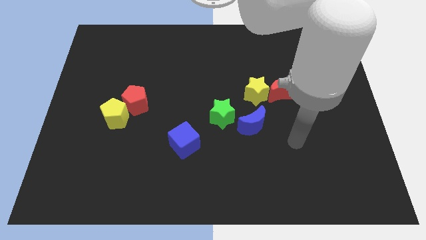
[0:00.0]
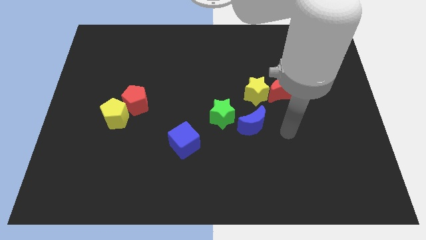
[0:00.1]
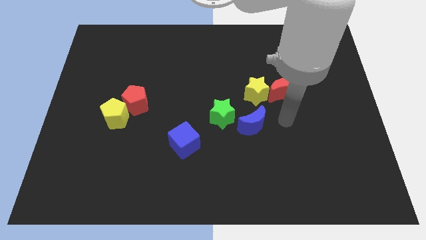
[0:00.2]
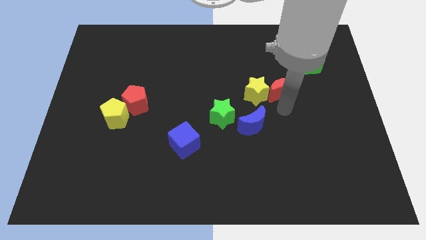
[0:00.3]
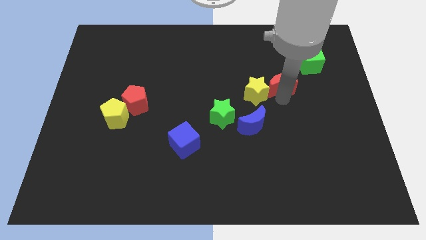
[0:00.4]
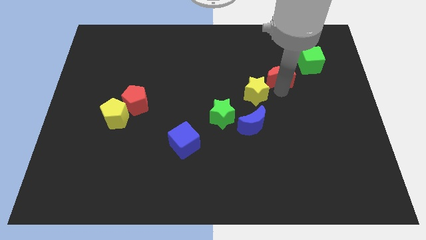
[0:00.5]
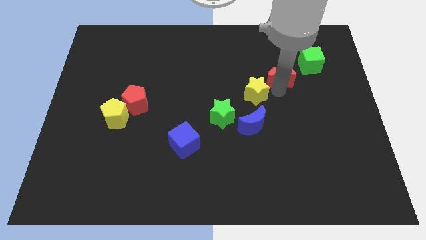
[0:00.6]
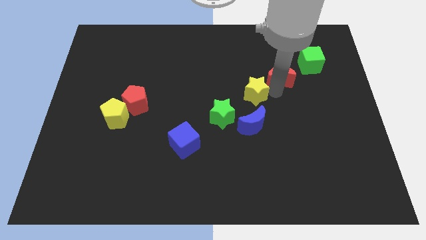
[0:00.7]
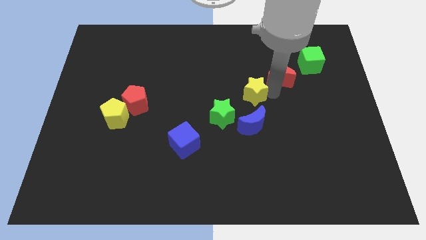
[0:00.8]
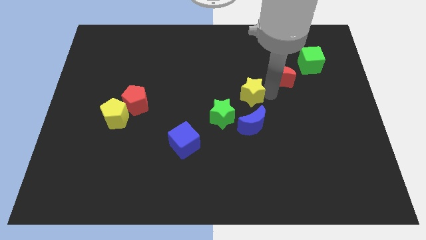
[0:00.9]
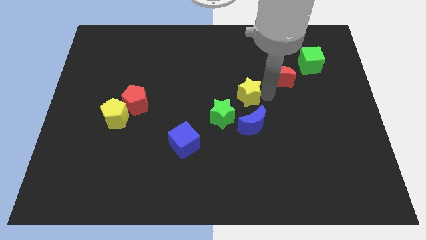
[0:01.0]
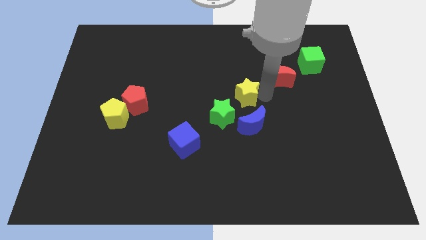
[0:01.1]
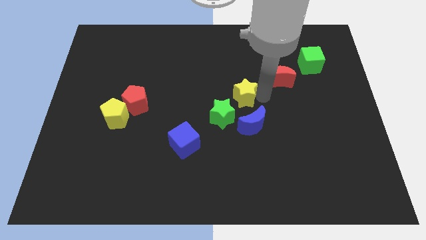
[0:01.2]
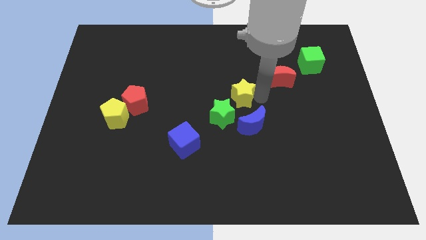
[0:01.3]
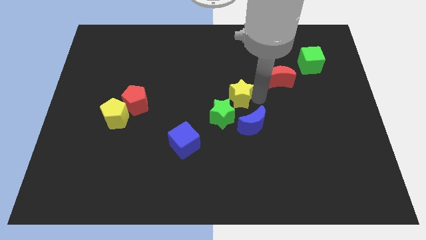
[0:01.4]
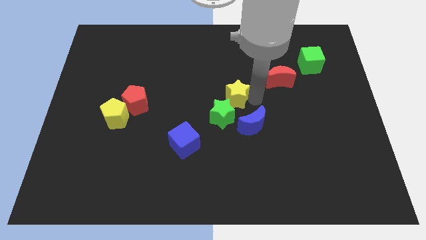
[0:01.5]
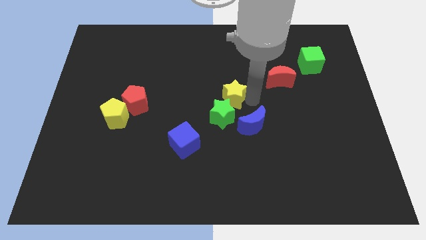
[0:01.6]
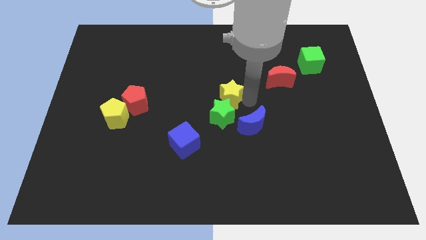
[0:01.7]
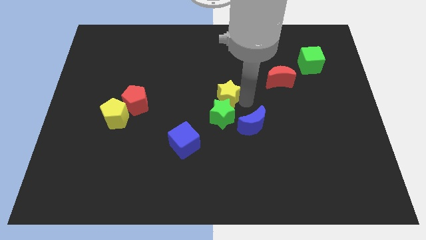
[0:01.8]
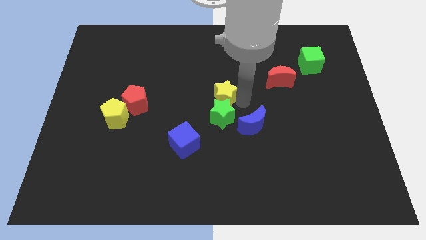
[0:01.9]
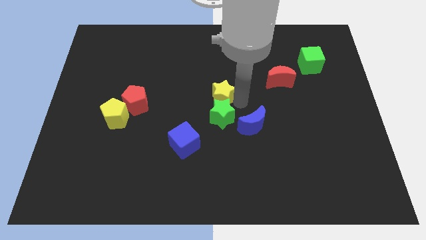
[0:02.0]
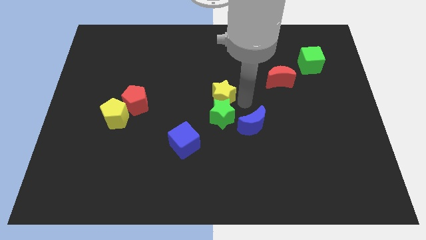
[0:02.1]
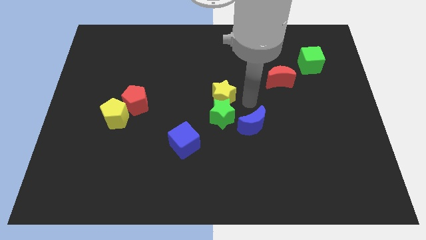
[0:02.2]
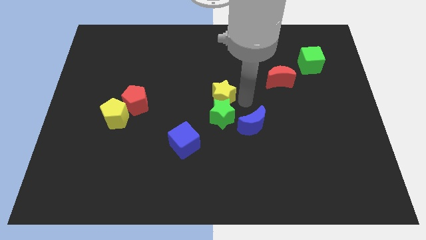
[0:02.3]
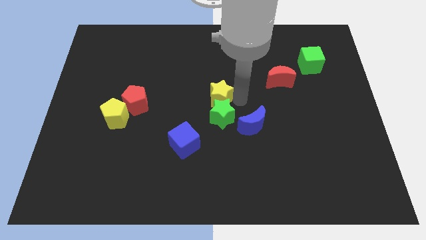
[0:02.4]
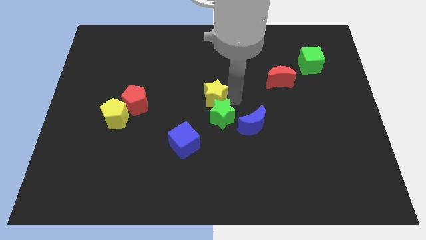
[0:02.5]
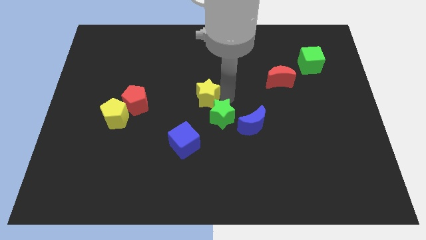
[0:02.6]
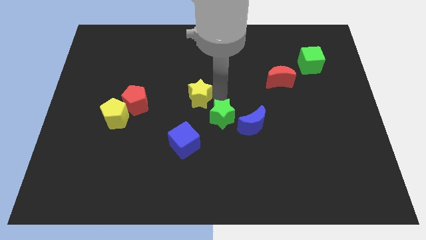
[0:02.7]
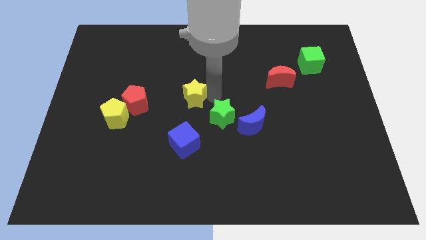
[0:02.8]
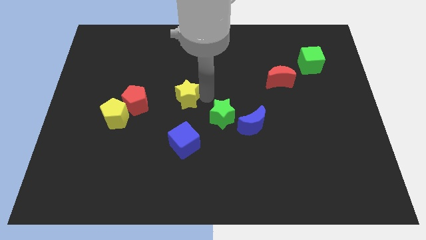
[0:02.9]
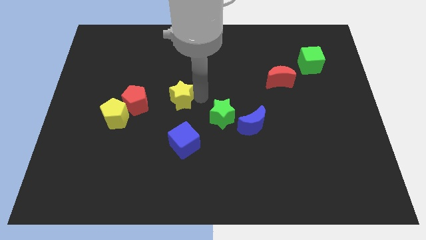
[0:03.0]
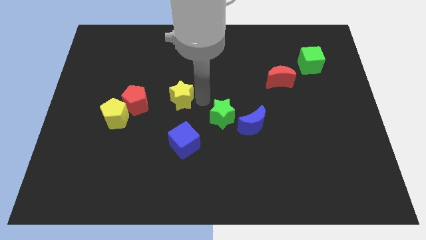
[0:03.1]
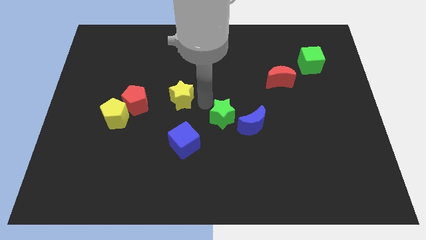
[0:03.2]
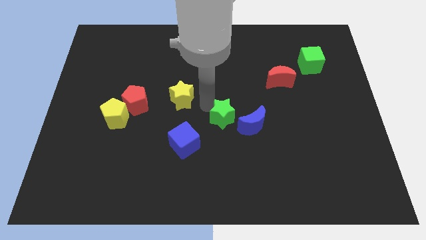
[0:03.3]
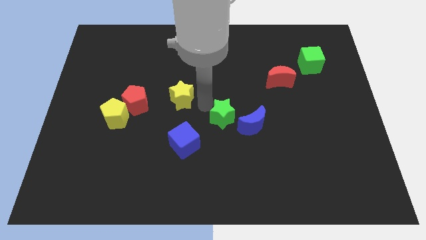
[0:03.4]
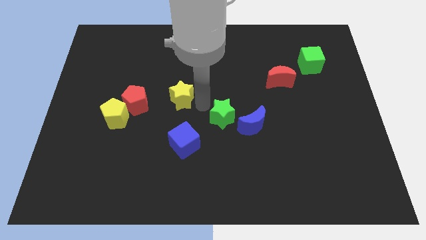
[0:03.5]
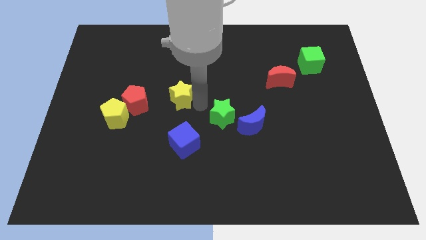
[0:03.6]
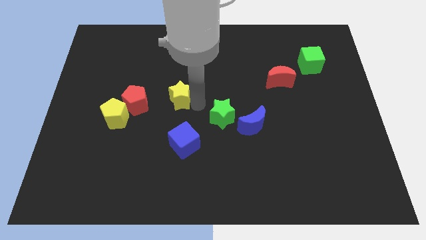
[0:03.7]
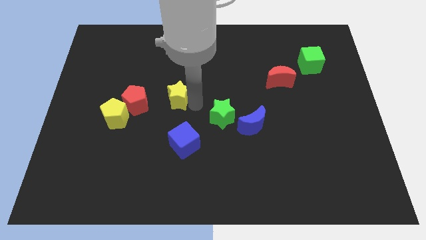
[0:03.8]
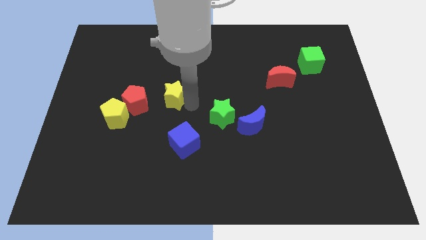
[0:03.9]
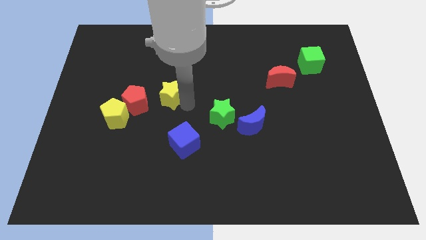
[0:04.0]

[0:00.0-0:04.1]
push the yellow star left

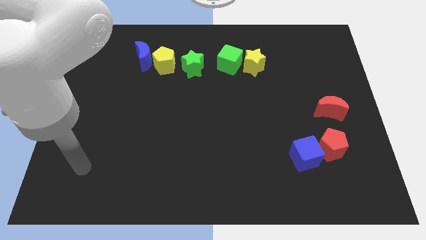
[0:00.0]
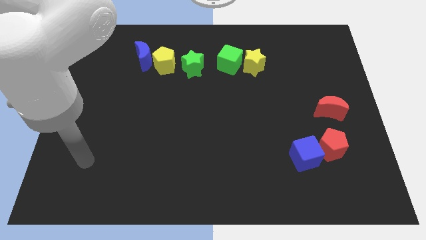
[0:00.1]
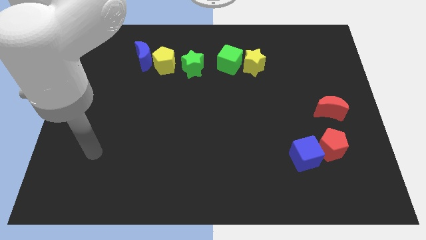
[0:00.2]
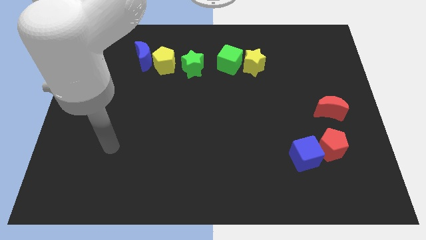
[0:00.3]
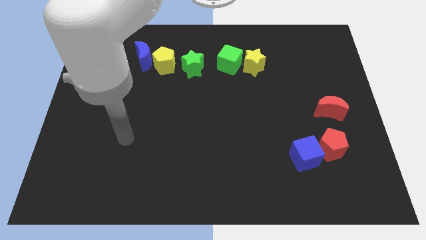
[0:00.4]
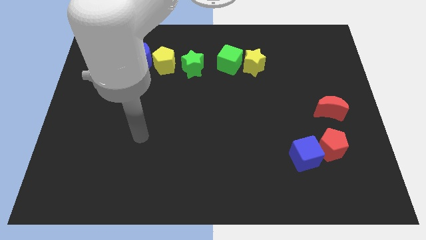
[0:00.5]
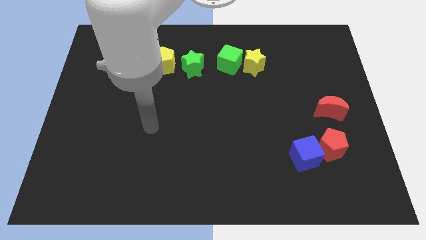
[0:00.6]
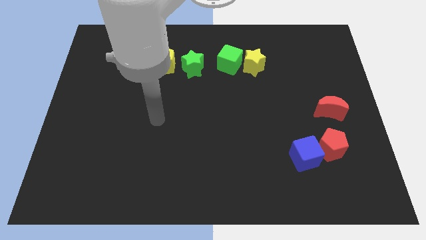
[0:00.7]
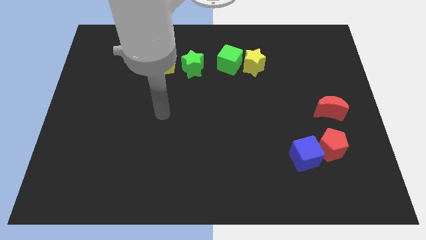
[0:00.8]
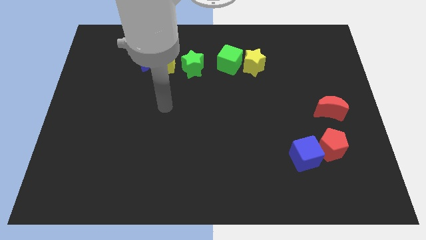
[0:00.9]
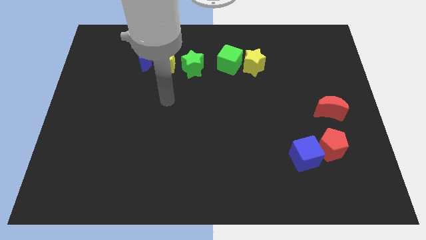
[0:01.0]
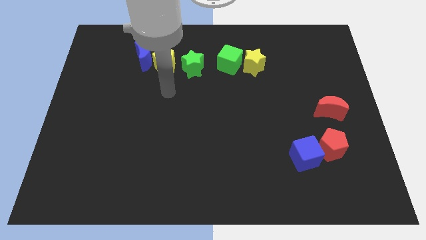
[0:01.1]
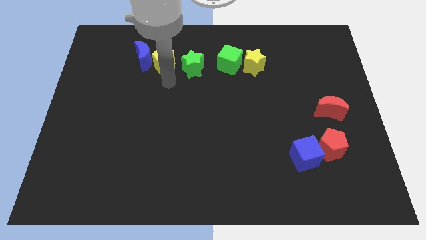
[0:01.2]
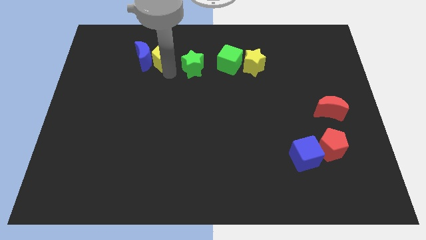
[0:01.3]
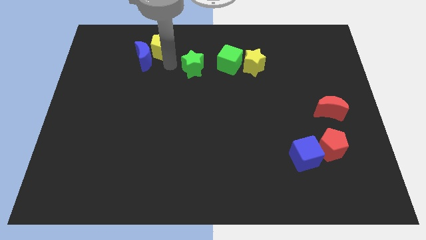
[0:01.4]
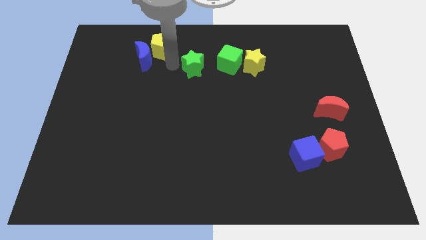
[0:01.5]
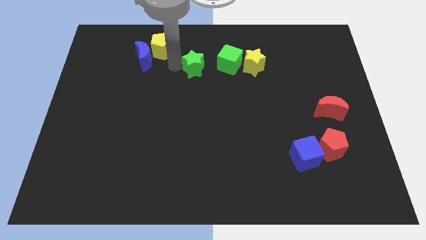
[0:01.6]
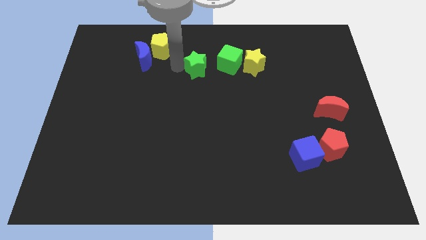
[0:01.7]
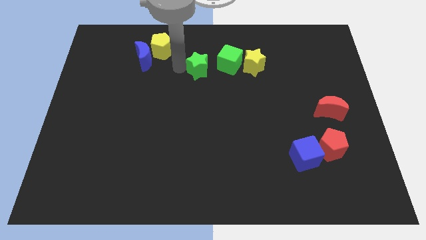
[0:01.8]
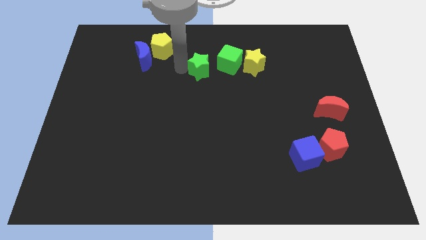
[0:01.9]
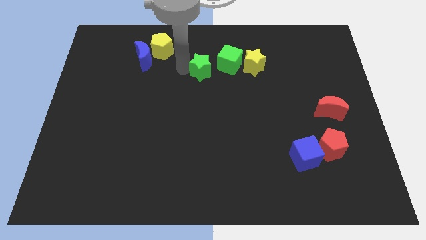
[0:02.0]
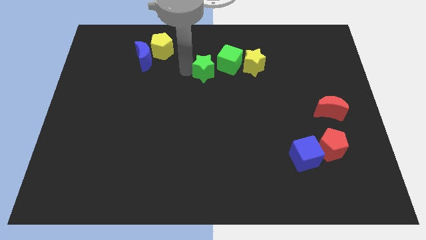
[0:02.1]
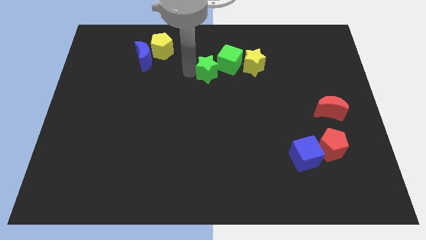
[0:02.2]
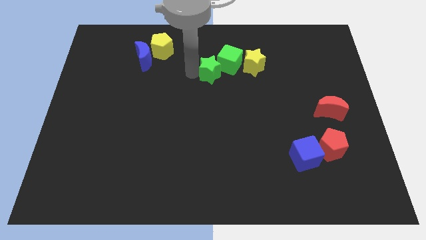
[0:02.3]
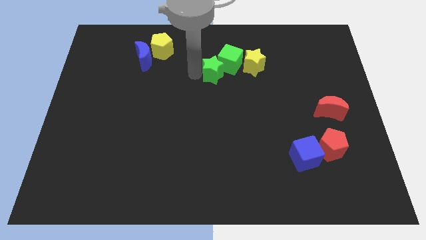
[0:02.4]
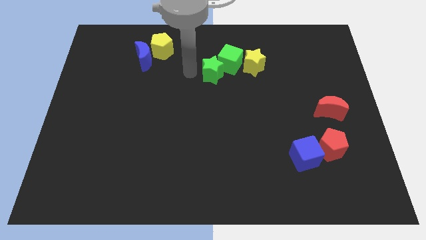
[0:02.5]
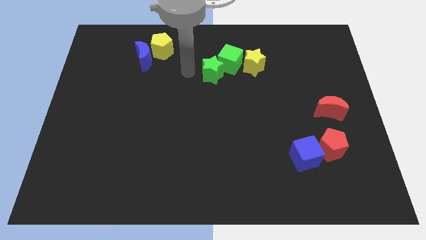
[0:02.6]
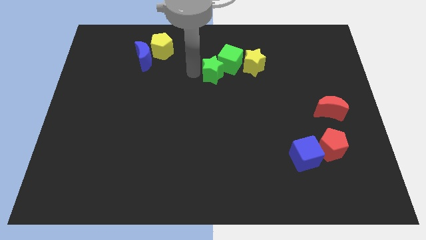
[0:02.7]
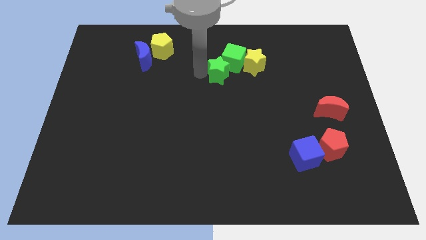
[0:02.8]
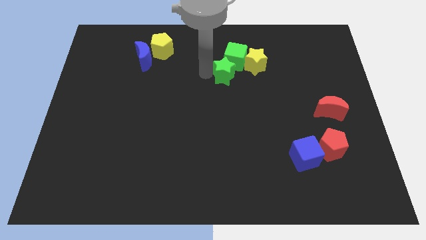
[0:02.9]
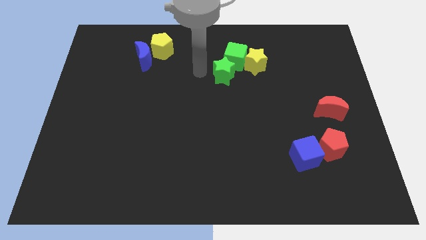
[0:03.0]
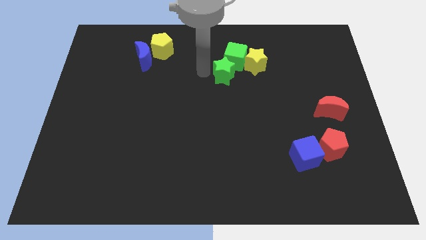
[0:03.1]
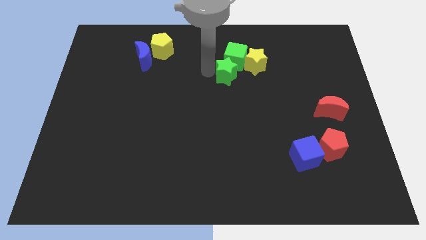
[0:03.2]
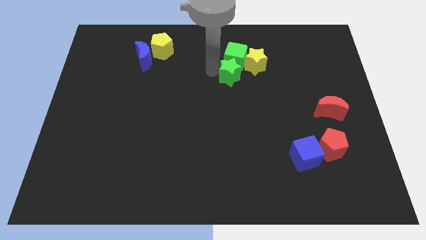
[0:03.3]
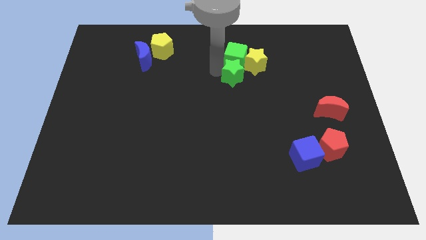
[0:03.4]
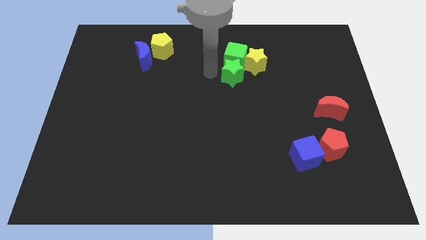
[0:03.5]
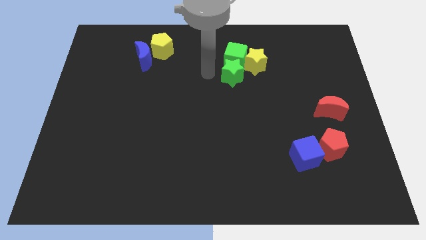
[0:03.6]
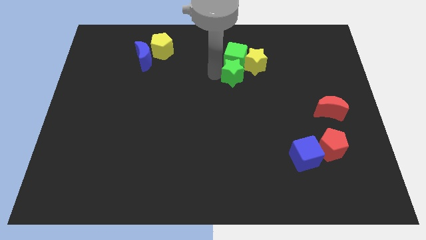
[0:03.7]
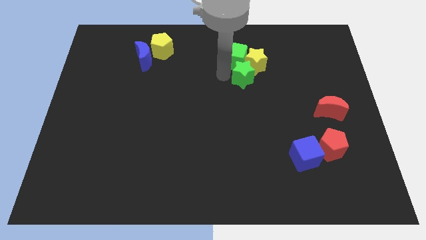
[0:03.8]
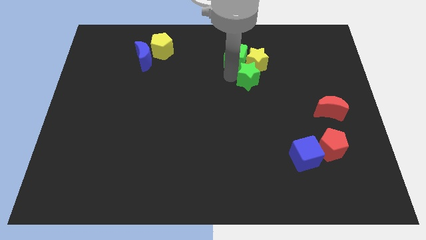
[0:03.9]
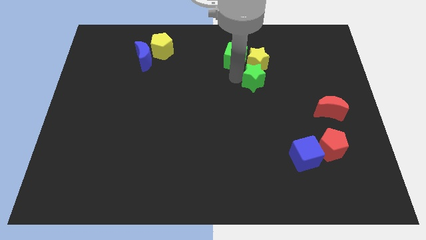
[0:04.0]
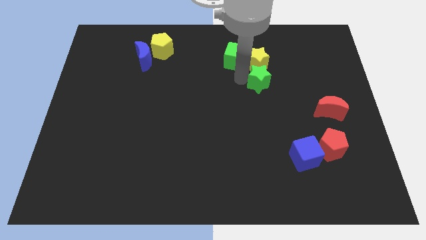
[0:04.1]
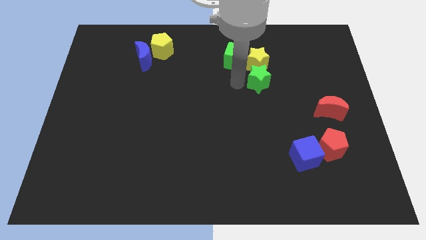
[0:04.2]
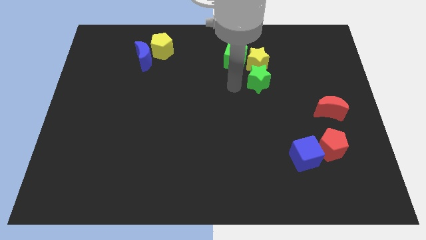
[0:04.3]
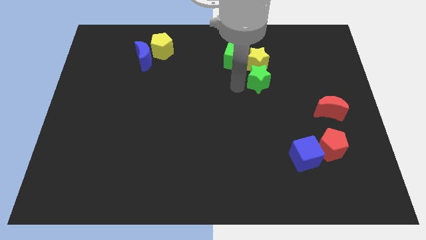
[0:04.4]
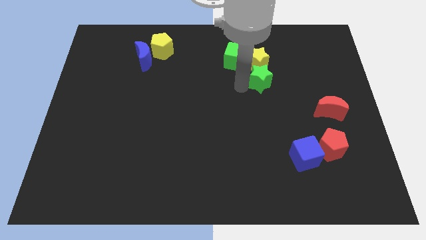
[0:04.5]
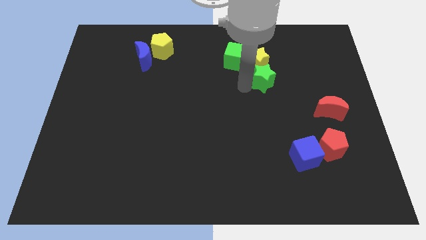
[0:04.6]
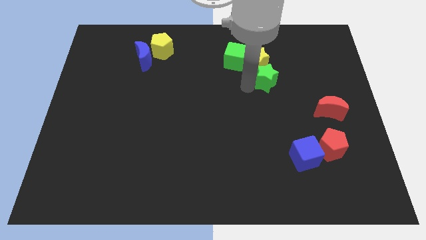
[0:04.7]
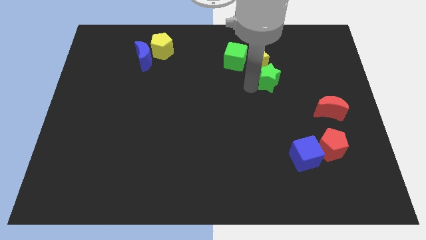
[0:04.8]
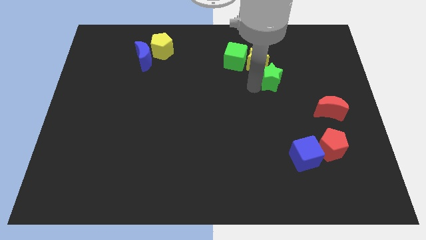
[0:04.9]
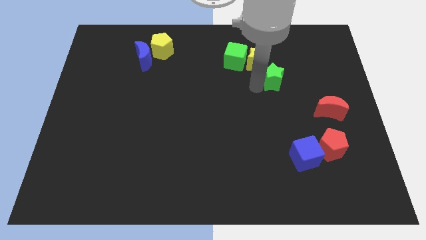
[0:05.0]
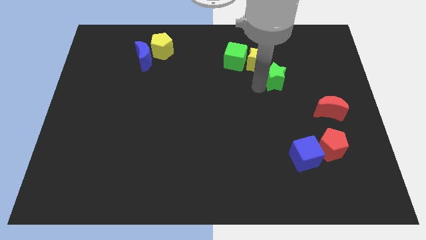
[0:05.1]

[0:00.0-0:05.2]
slide the green star right
